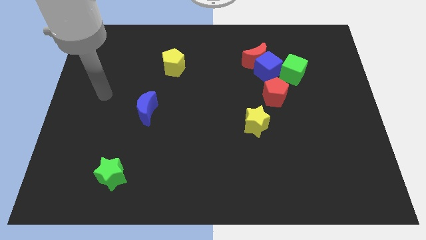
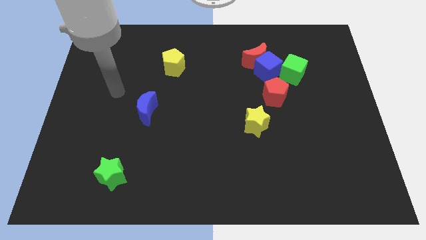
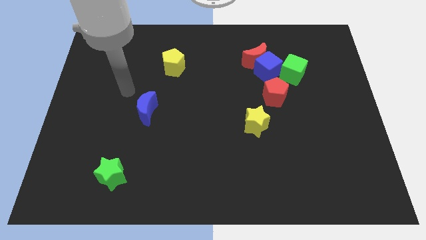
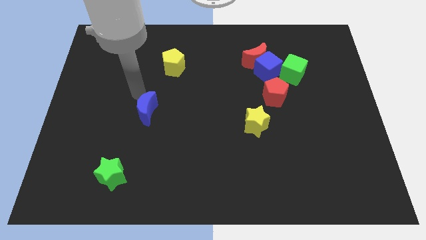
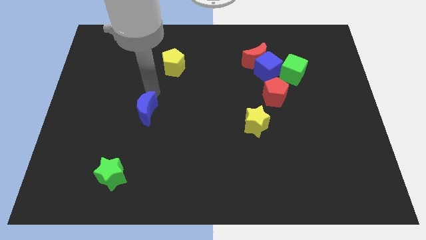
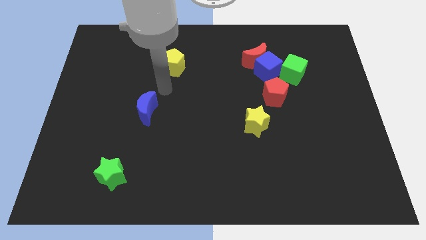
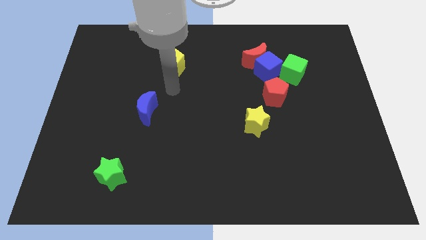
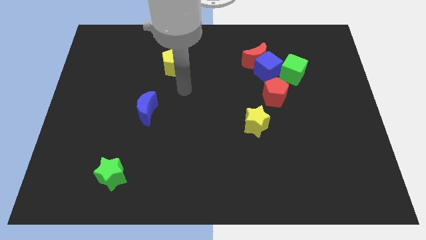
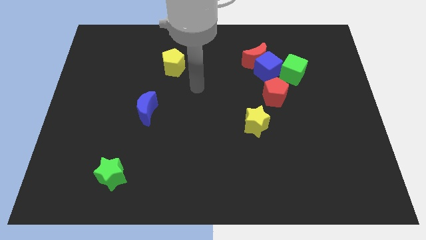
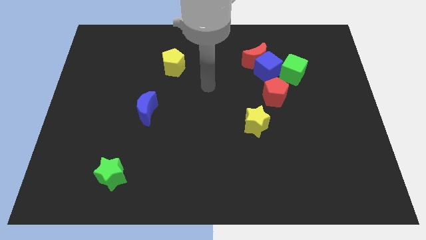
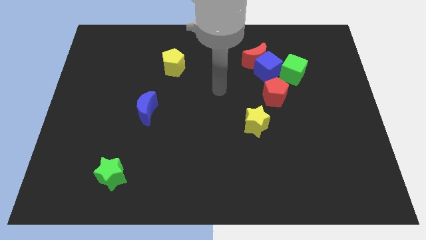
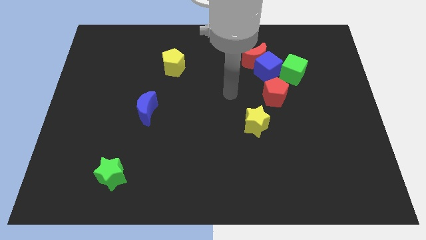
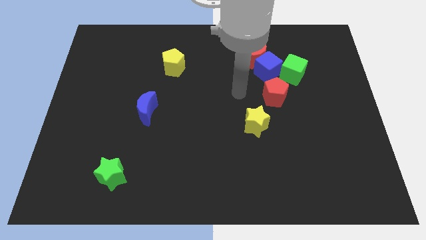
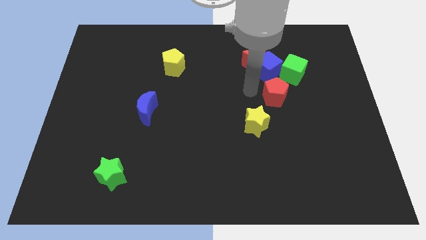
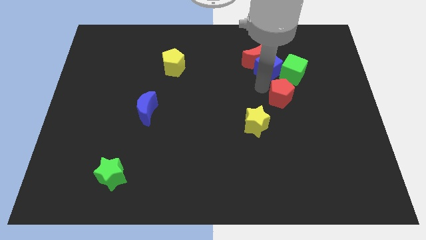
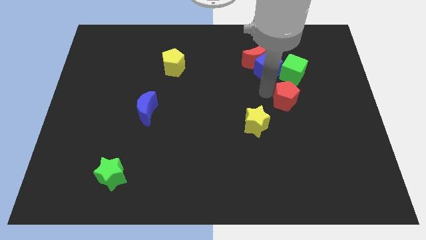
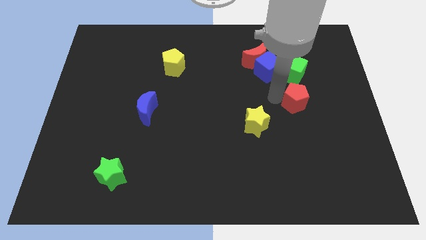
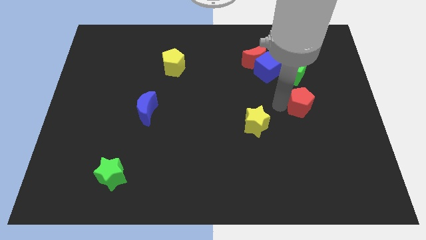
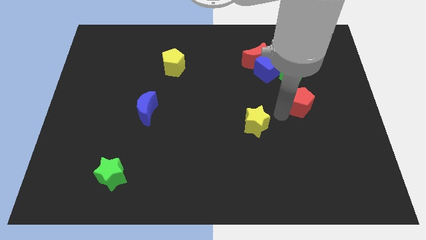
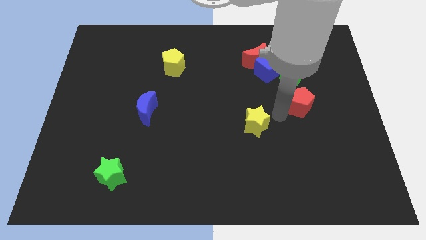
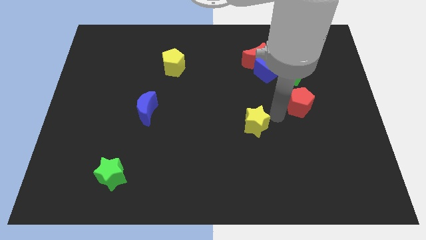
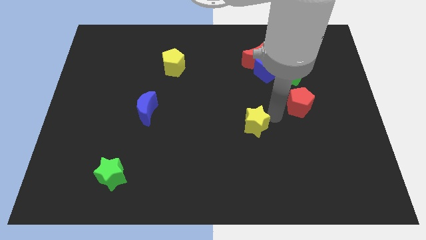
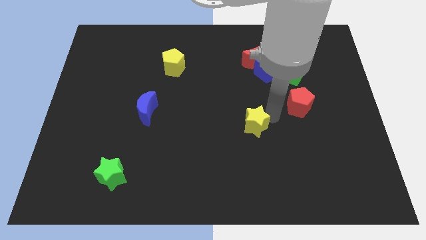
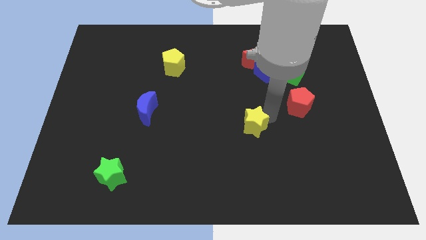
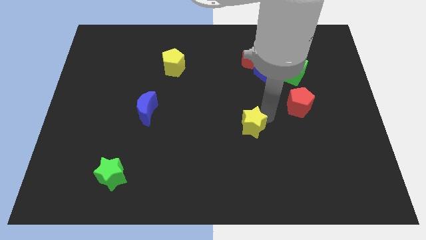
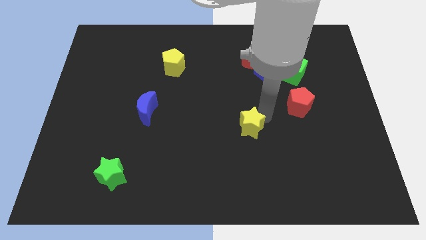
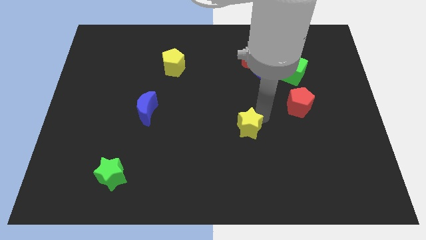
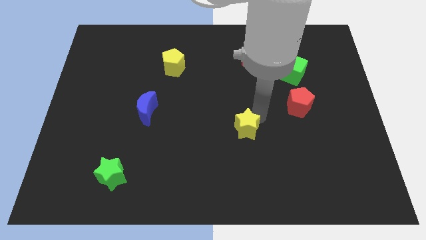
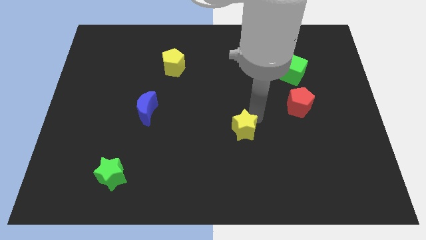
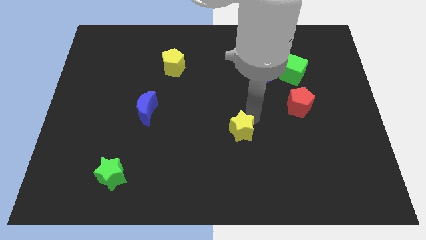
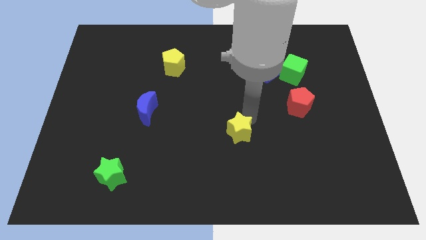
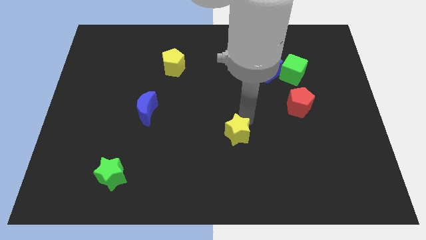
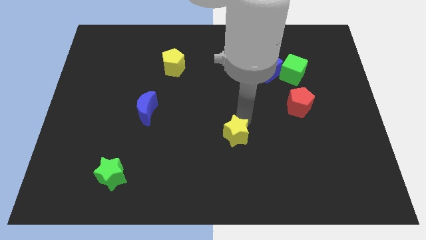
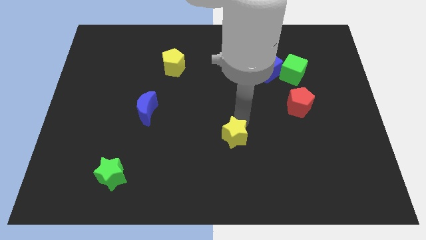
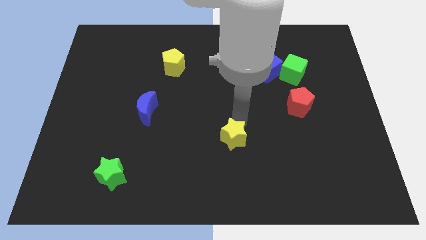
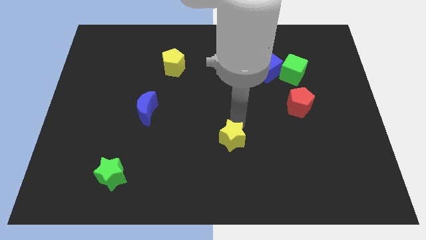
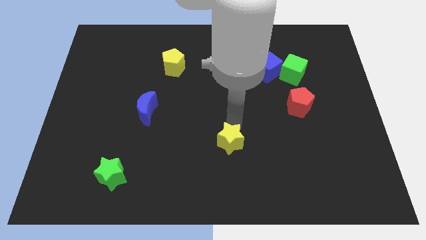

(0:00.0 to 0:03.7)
push the yellow star slightly down and left diagonally

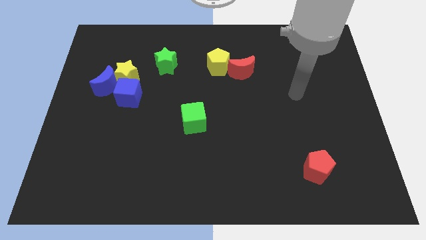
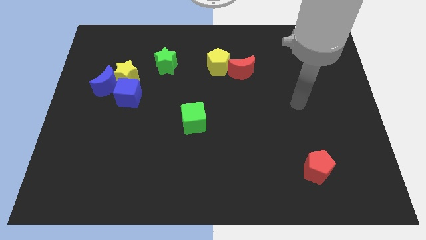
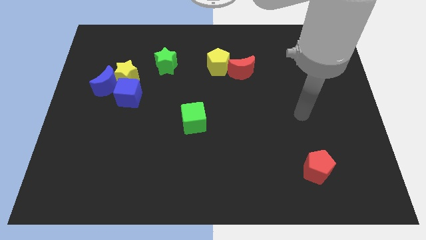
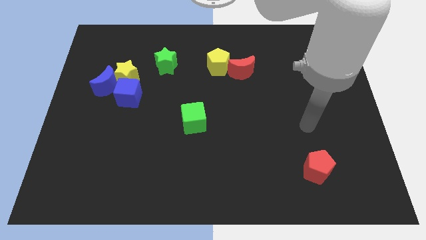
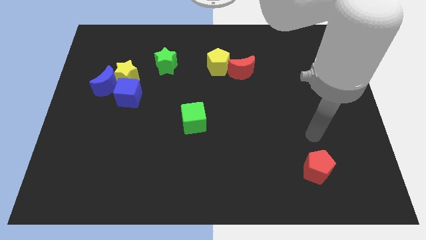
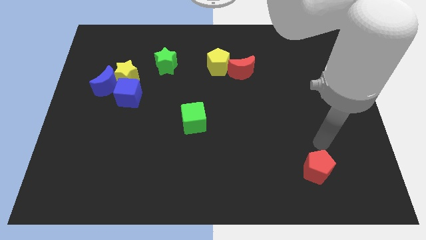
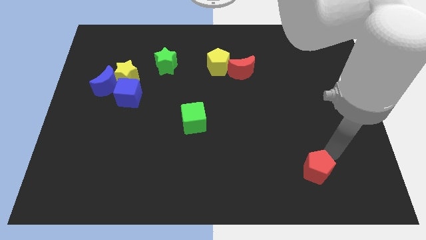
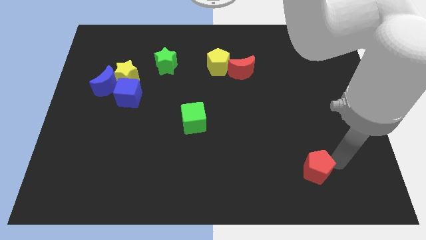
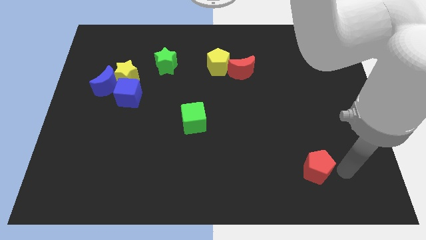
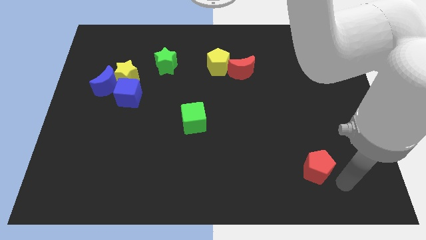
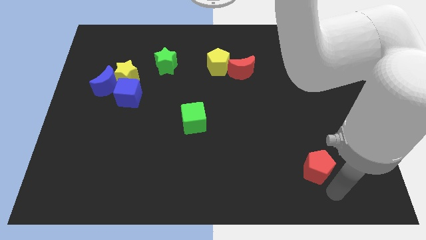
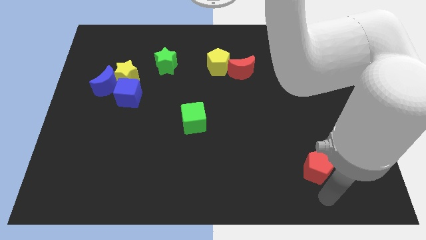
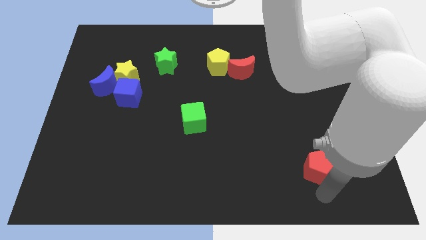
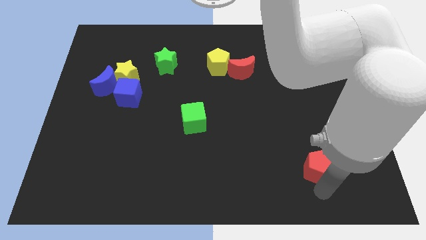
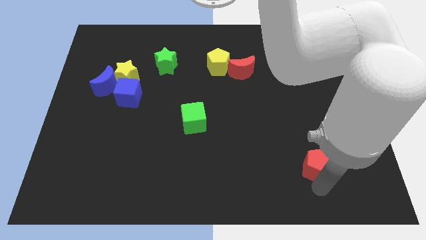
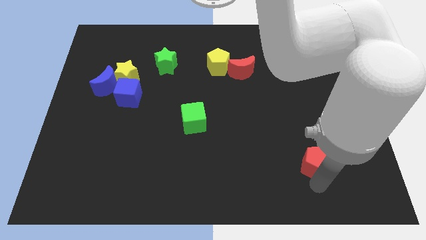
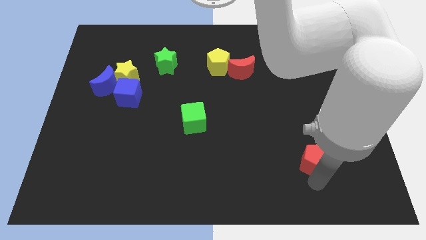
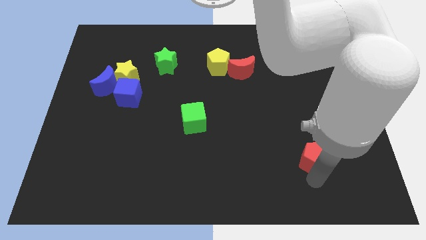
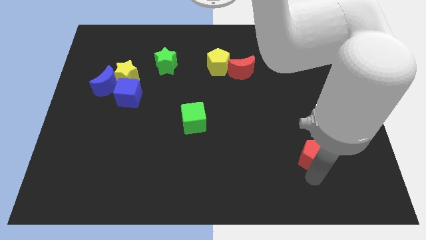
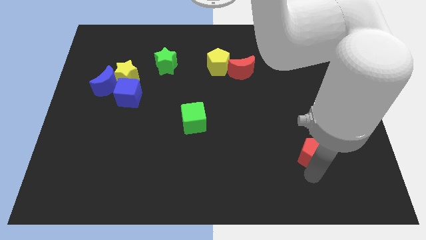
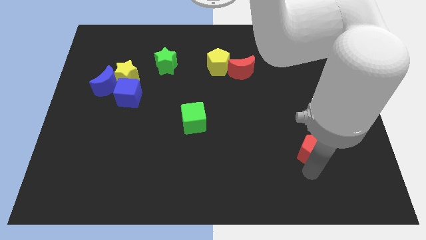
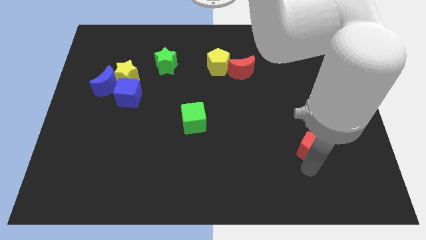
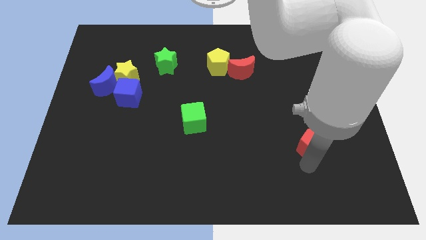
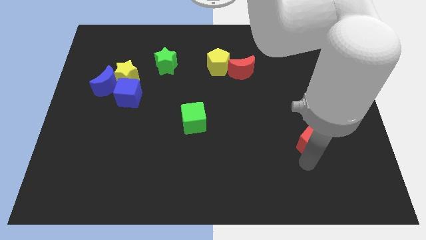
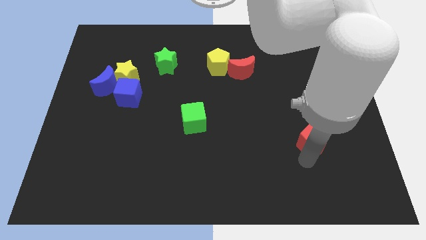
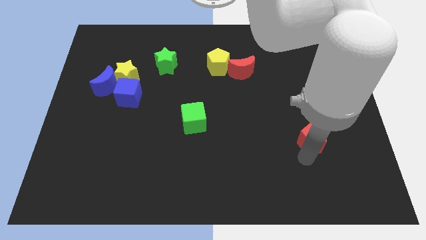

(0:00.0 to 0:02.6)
slightly slide the red pentagon up

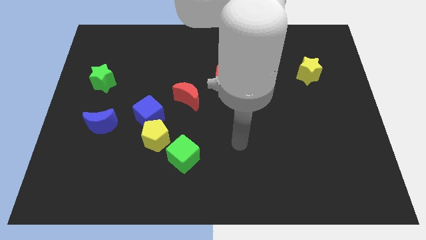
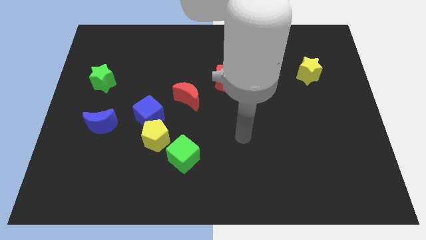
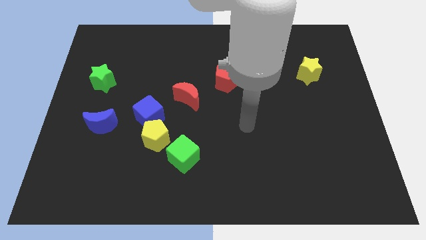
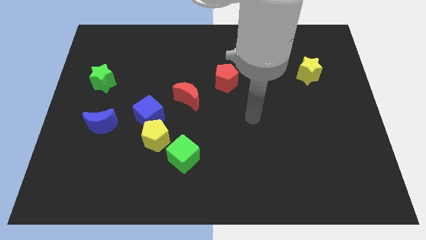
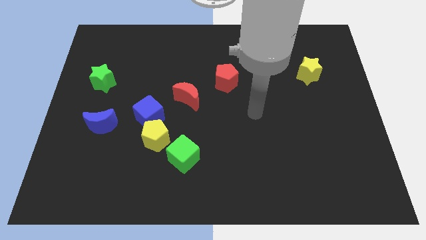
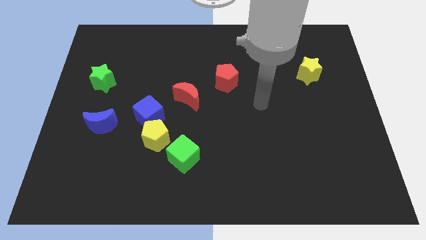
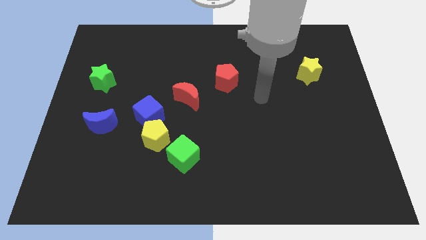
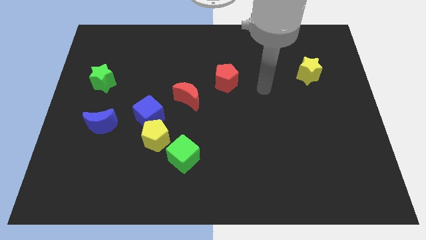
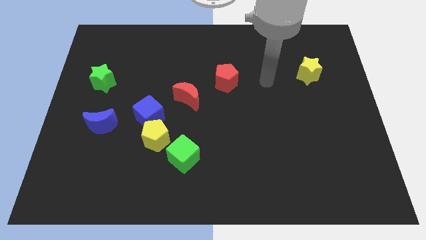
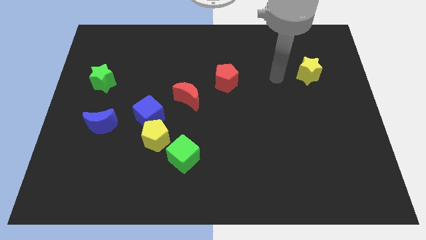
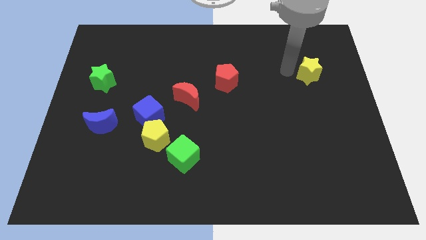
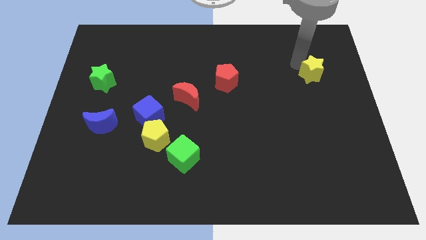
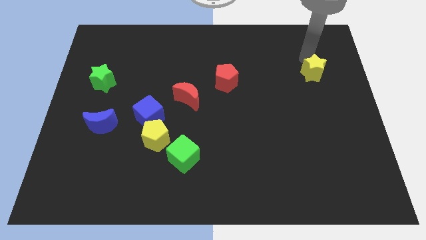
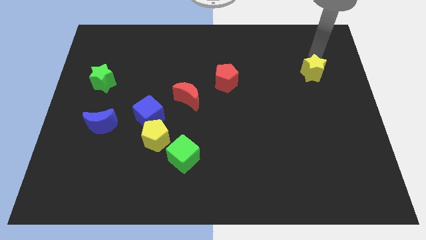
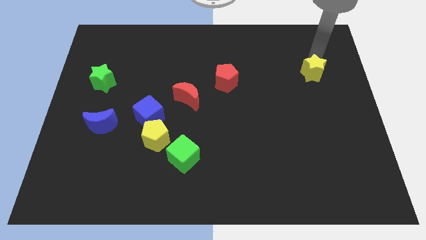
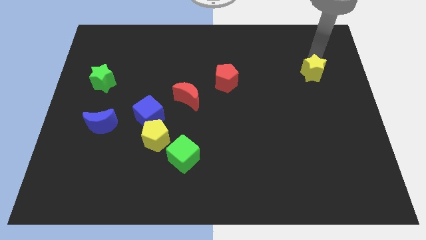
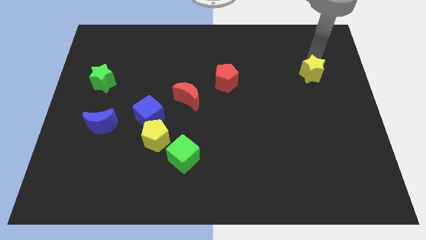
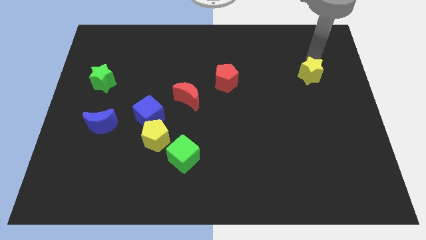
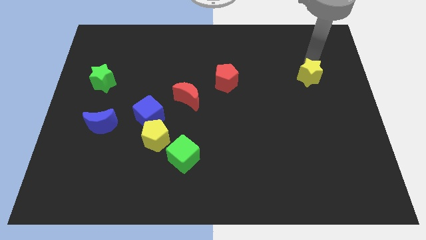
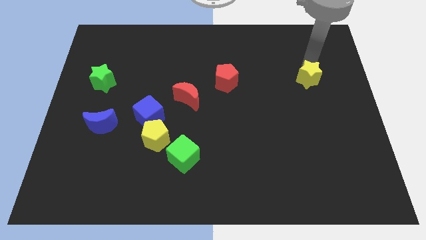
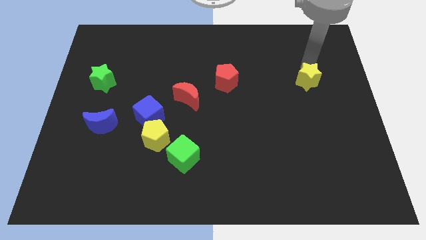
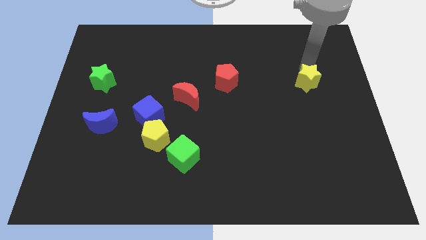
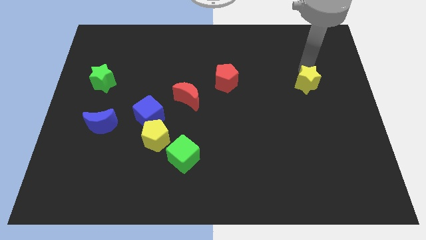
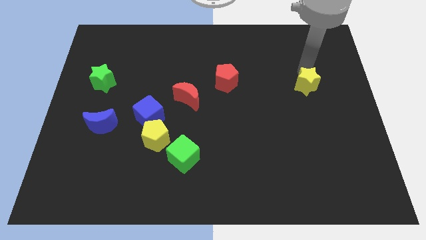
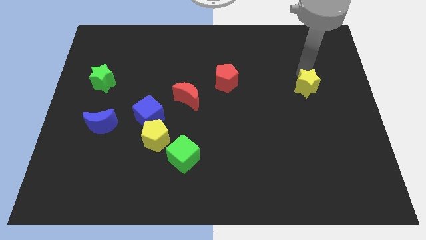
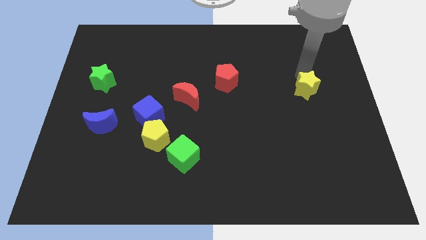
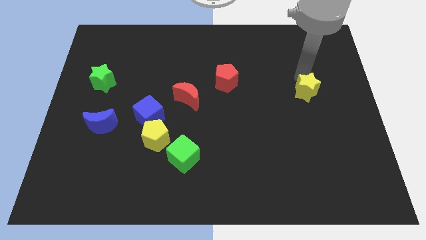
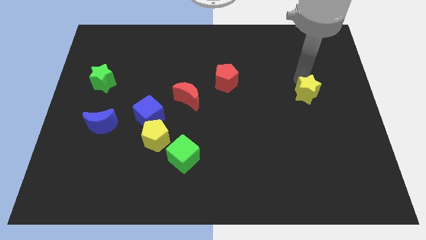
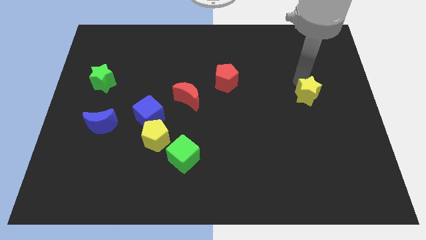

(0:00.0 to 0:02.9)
slightly push the yellow star down
